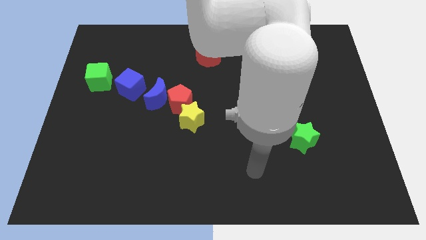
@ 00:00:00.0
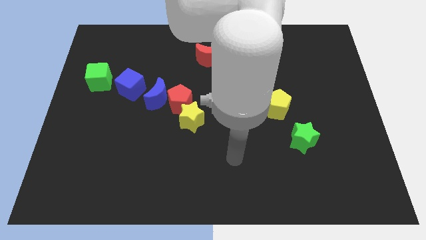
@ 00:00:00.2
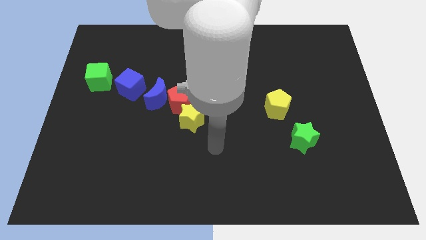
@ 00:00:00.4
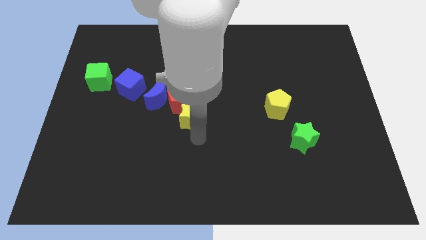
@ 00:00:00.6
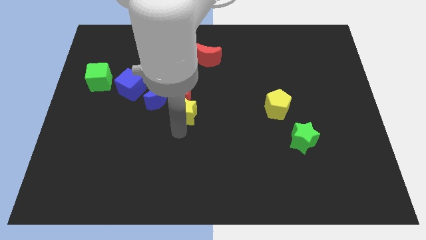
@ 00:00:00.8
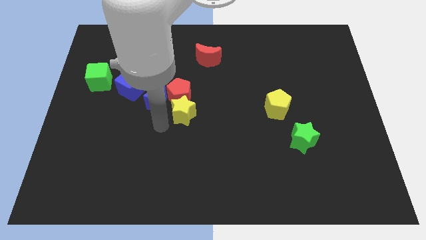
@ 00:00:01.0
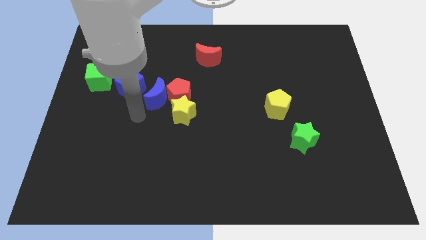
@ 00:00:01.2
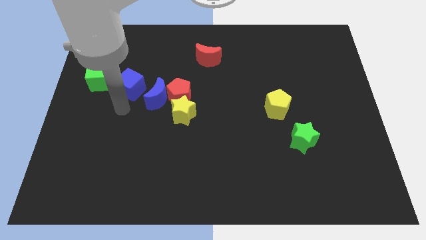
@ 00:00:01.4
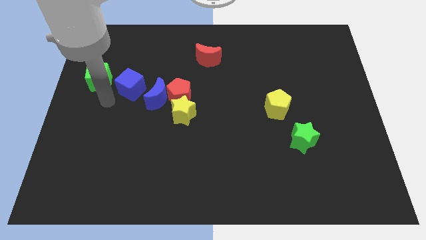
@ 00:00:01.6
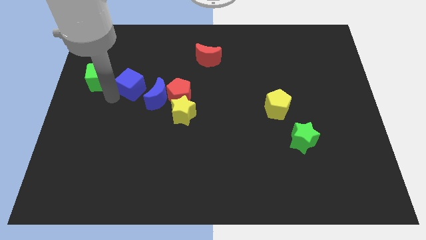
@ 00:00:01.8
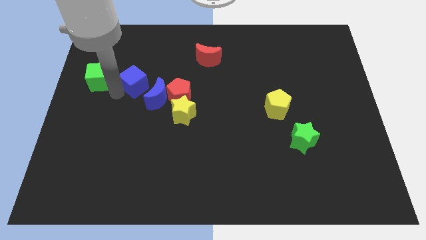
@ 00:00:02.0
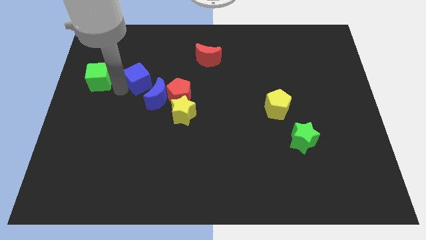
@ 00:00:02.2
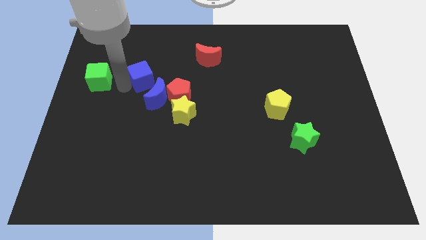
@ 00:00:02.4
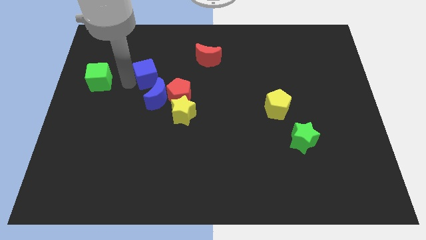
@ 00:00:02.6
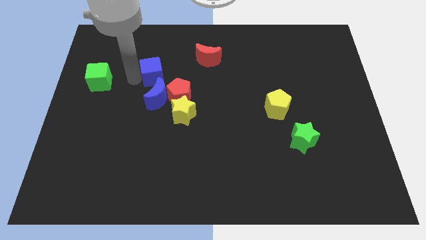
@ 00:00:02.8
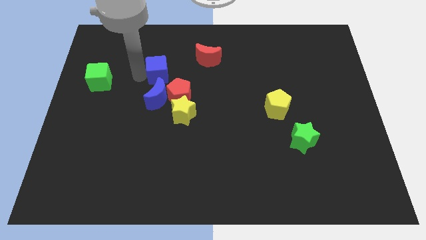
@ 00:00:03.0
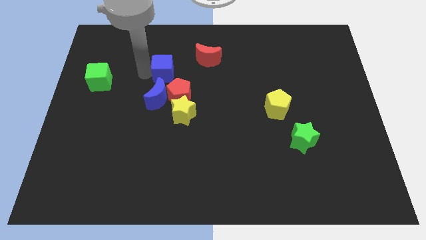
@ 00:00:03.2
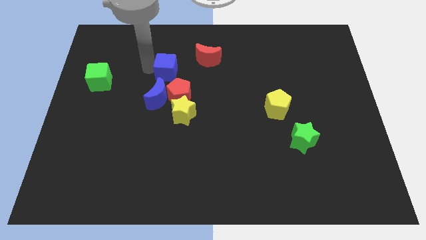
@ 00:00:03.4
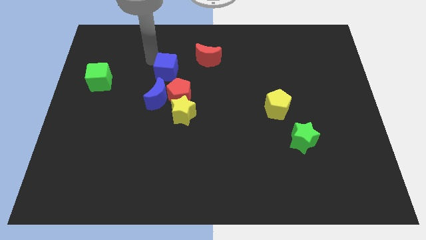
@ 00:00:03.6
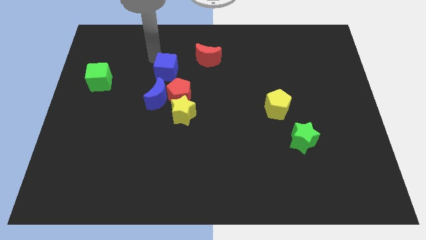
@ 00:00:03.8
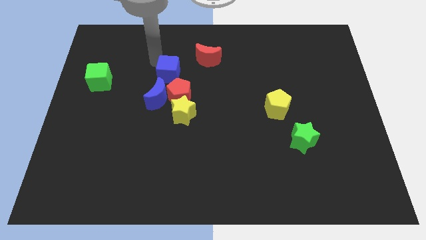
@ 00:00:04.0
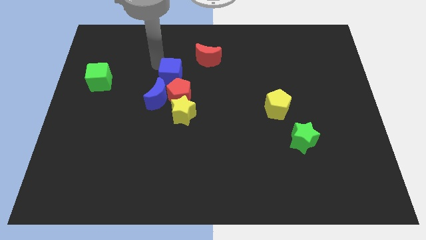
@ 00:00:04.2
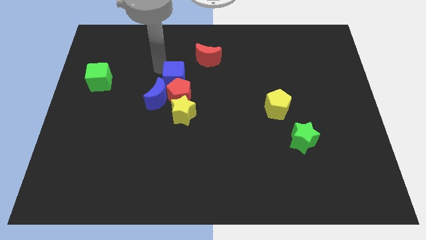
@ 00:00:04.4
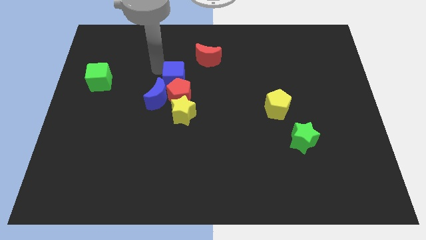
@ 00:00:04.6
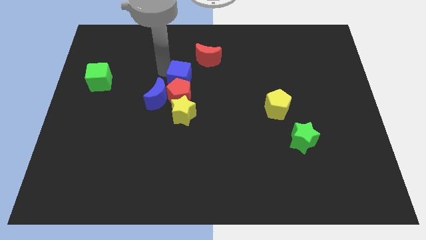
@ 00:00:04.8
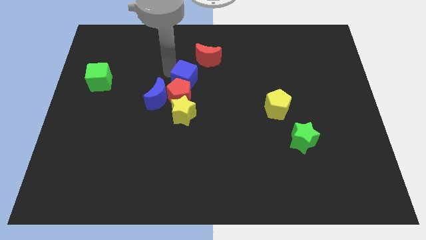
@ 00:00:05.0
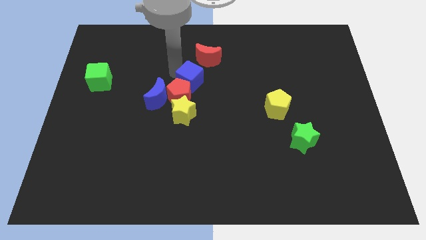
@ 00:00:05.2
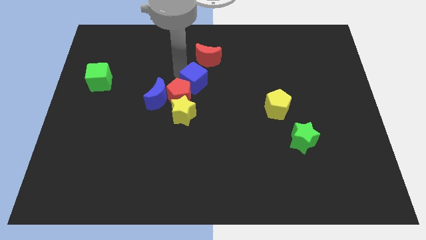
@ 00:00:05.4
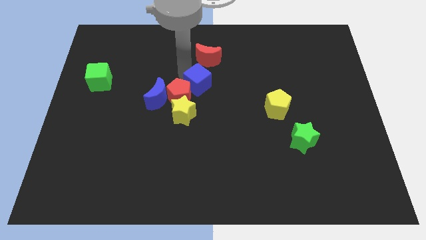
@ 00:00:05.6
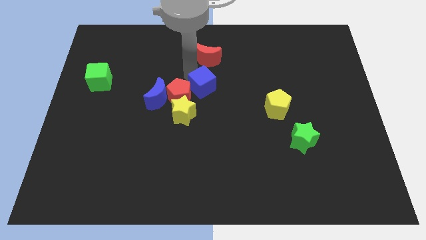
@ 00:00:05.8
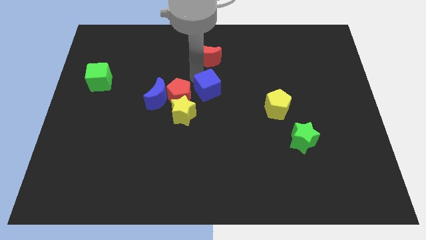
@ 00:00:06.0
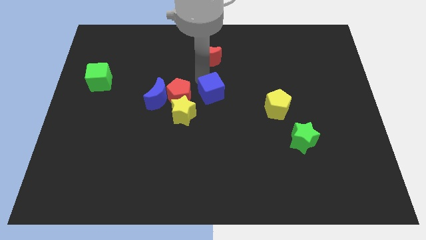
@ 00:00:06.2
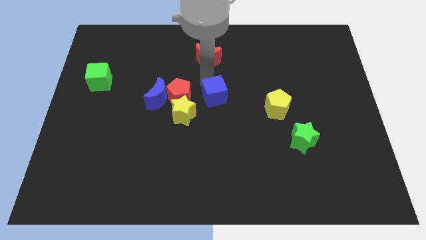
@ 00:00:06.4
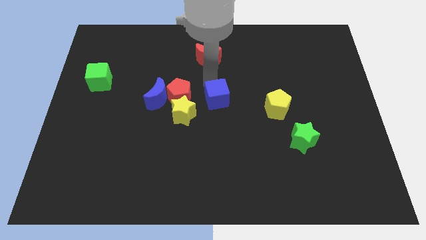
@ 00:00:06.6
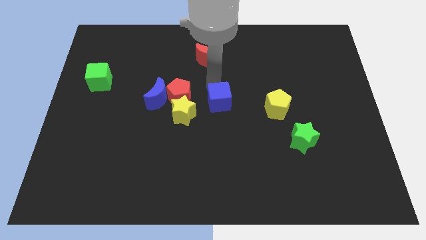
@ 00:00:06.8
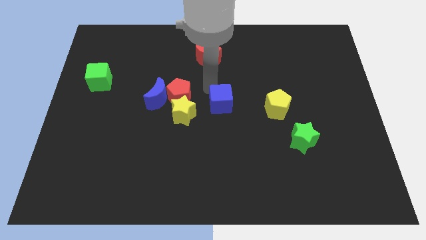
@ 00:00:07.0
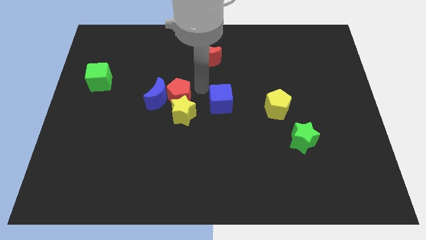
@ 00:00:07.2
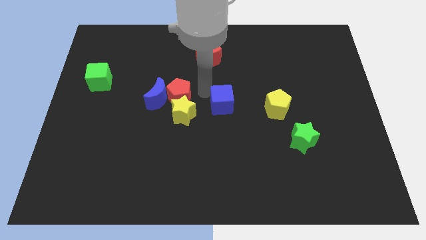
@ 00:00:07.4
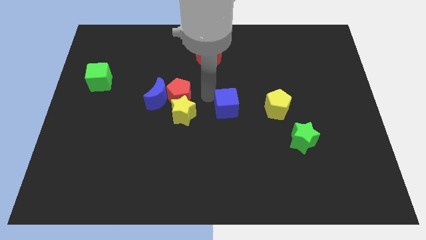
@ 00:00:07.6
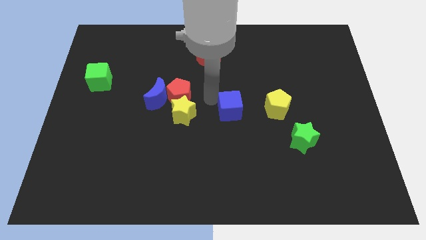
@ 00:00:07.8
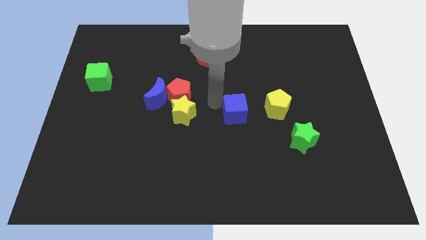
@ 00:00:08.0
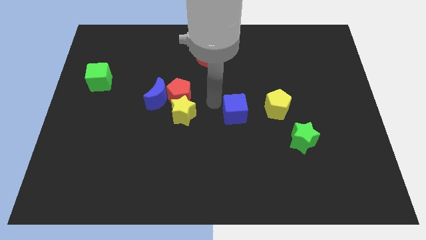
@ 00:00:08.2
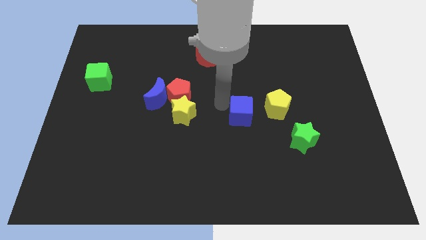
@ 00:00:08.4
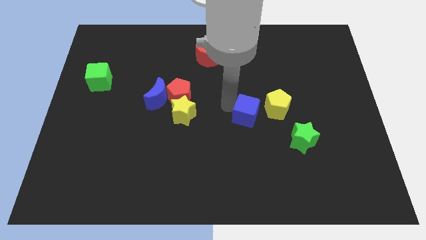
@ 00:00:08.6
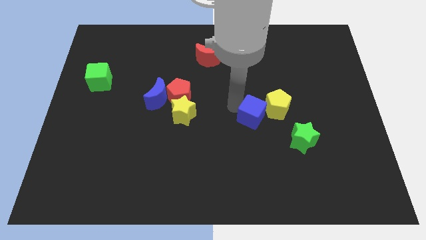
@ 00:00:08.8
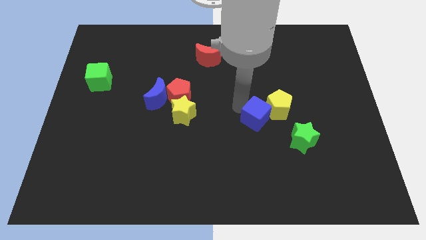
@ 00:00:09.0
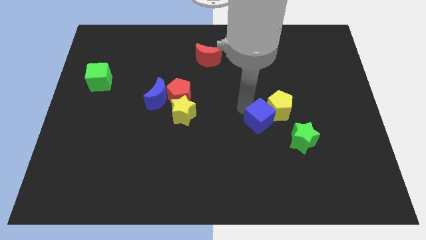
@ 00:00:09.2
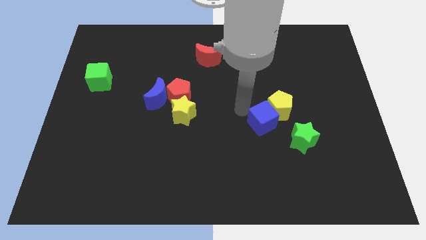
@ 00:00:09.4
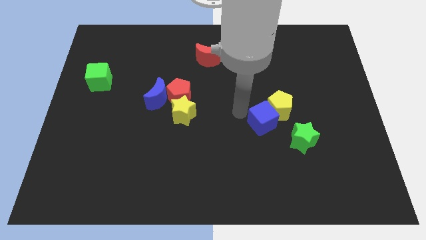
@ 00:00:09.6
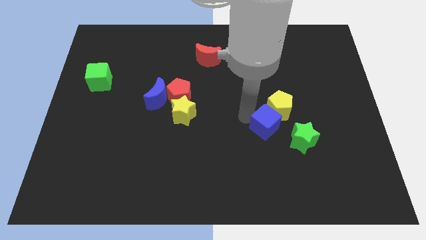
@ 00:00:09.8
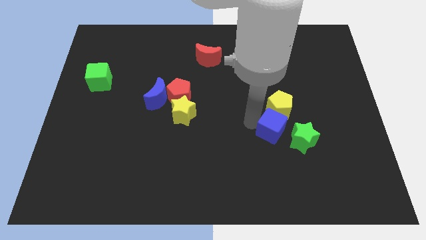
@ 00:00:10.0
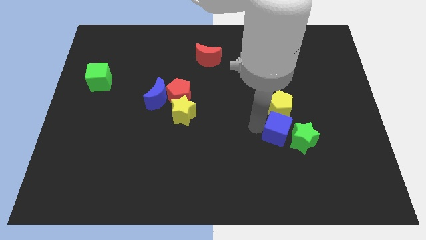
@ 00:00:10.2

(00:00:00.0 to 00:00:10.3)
push the blue cube to the green star

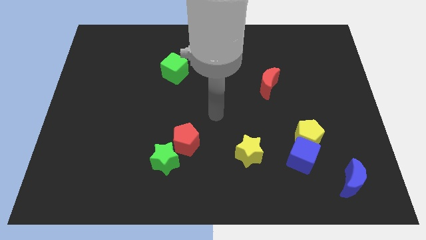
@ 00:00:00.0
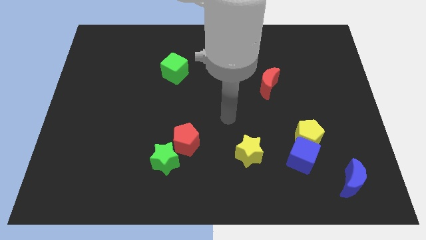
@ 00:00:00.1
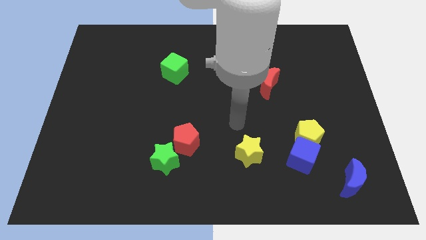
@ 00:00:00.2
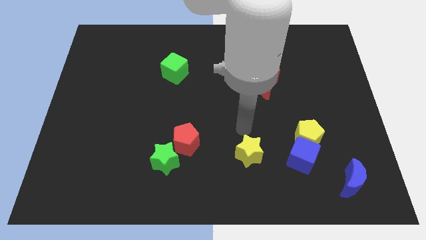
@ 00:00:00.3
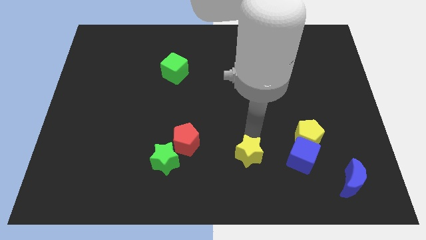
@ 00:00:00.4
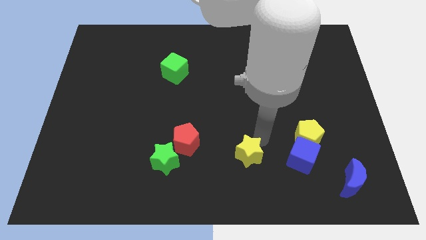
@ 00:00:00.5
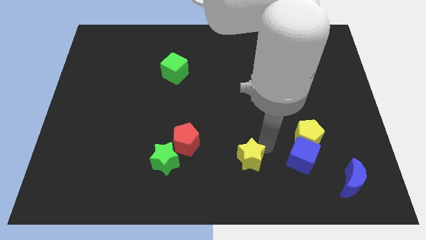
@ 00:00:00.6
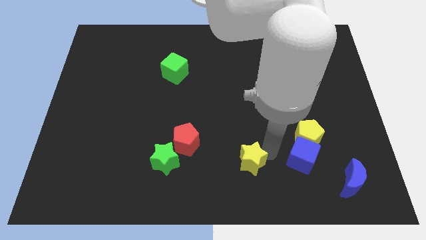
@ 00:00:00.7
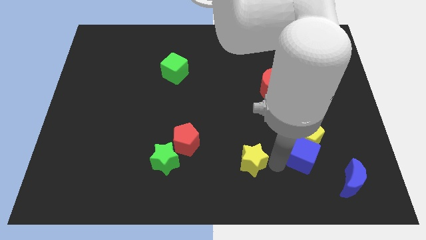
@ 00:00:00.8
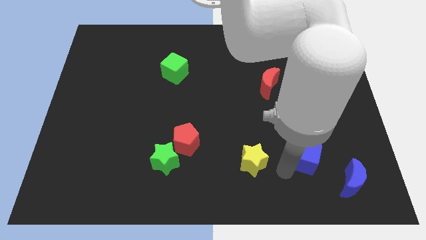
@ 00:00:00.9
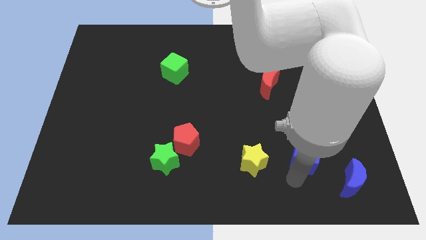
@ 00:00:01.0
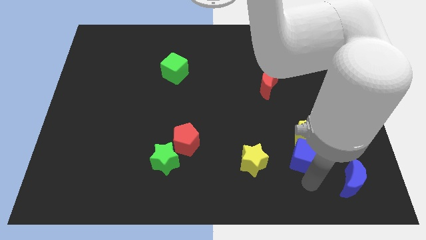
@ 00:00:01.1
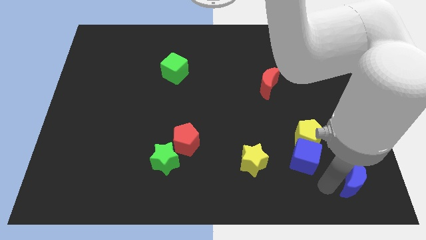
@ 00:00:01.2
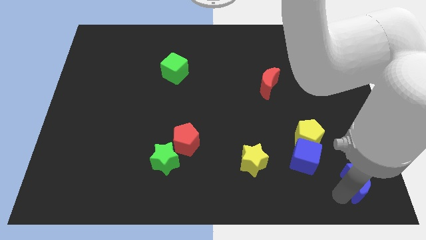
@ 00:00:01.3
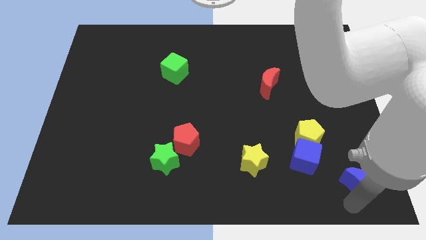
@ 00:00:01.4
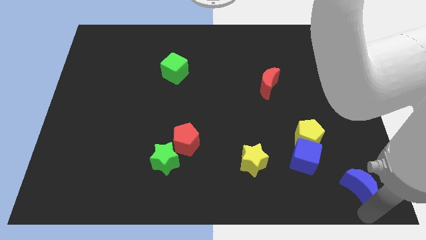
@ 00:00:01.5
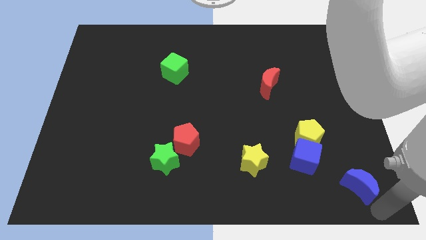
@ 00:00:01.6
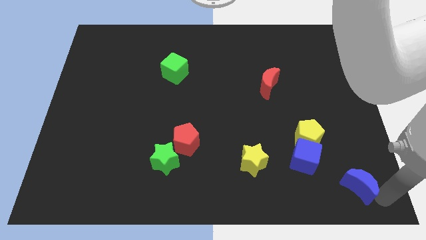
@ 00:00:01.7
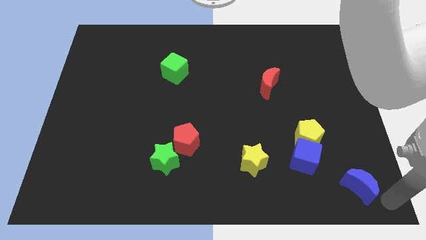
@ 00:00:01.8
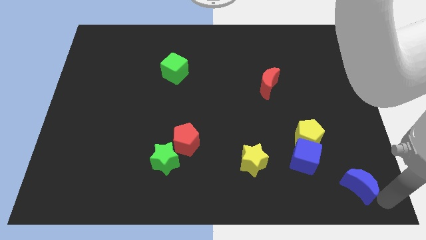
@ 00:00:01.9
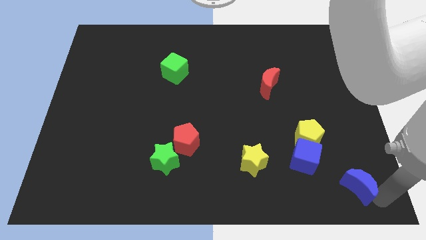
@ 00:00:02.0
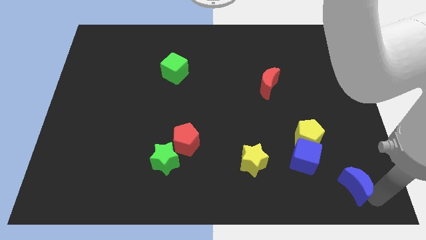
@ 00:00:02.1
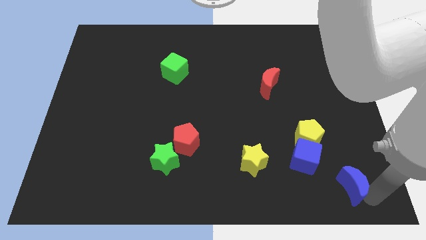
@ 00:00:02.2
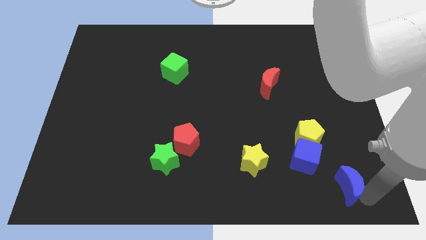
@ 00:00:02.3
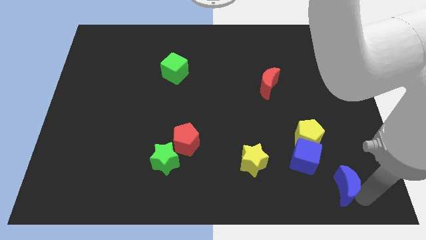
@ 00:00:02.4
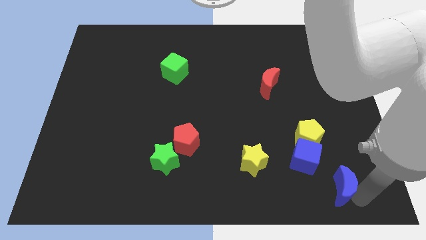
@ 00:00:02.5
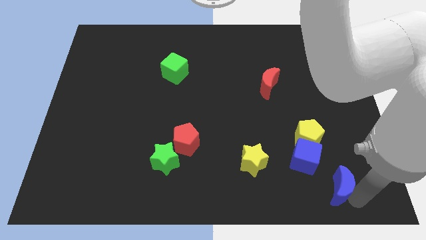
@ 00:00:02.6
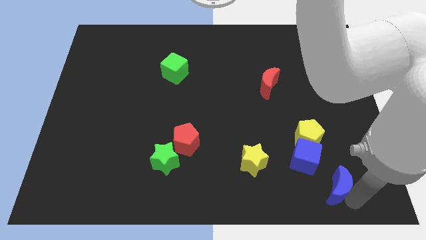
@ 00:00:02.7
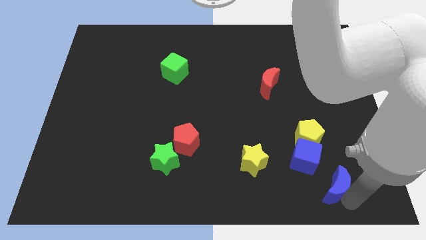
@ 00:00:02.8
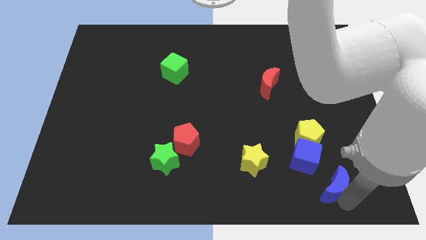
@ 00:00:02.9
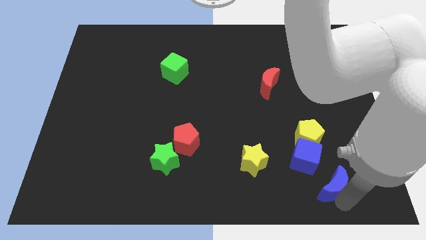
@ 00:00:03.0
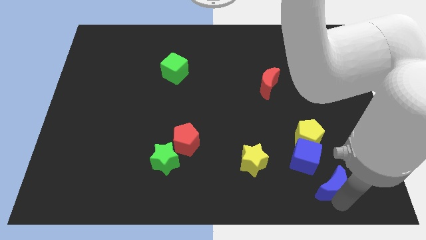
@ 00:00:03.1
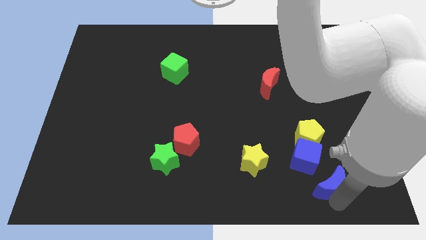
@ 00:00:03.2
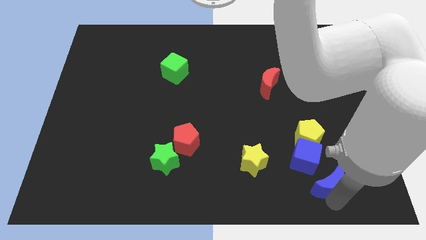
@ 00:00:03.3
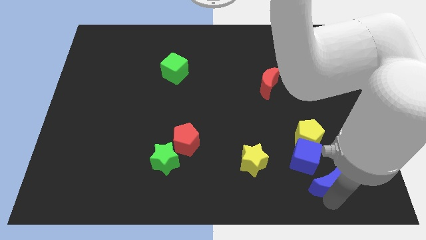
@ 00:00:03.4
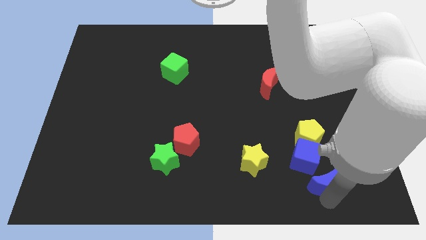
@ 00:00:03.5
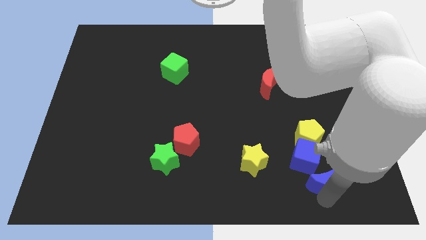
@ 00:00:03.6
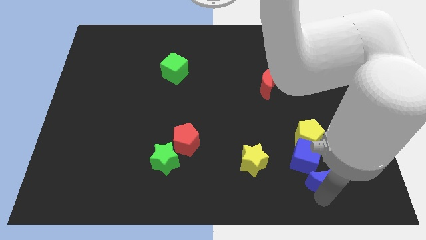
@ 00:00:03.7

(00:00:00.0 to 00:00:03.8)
slide the blue moon towards the blue cube
